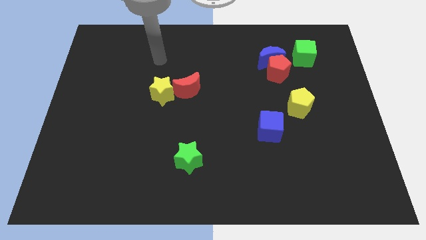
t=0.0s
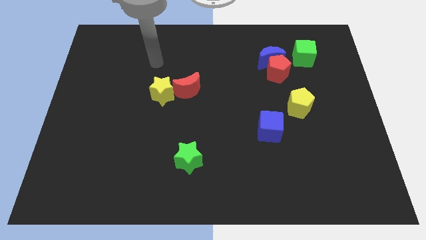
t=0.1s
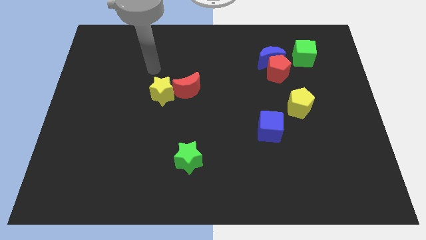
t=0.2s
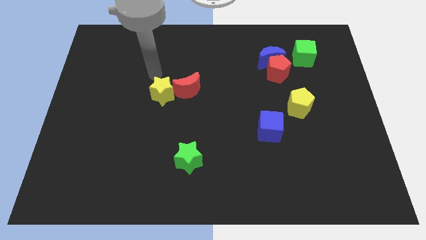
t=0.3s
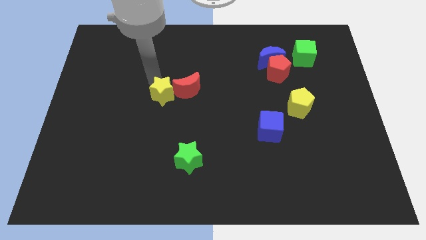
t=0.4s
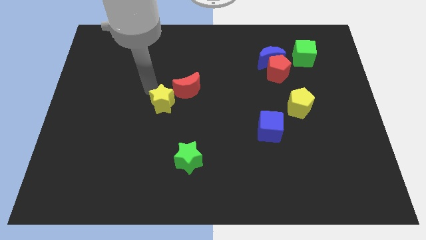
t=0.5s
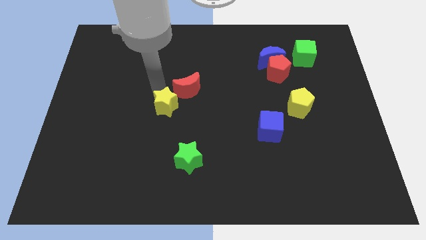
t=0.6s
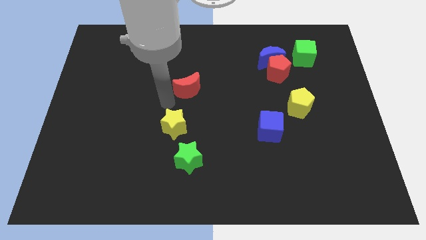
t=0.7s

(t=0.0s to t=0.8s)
separate the red moon from the yellow star

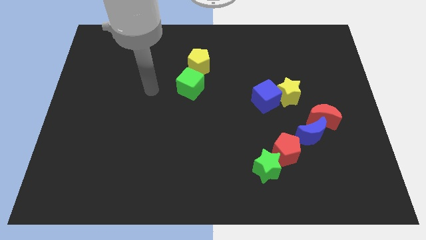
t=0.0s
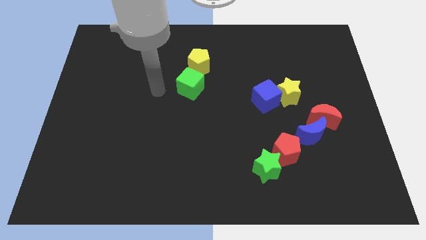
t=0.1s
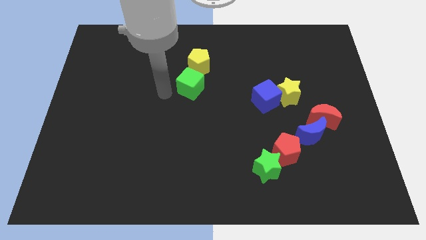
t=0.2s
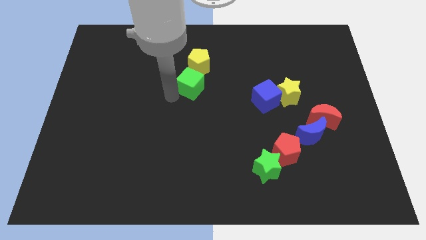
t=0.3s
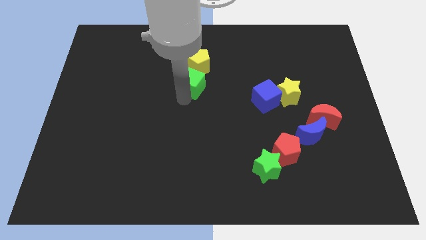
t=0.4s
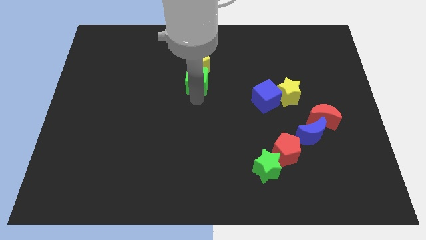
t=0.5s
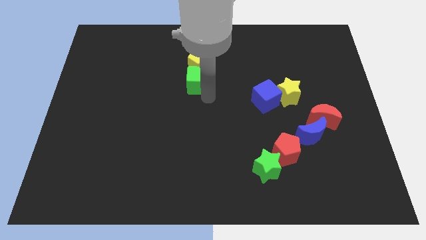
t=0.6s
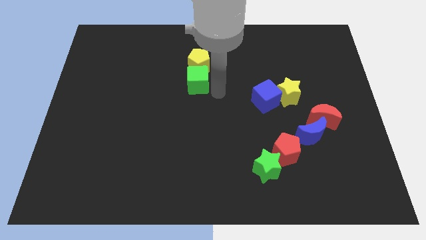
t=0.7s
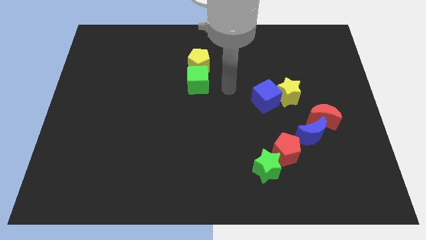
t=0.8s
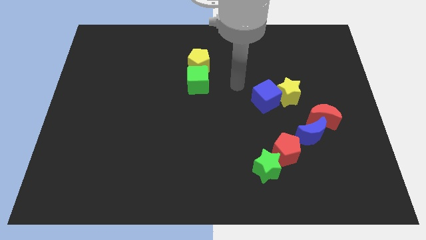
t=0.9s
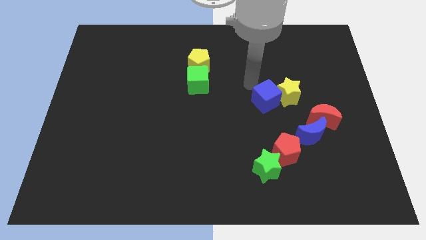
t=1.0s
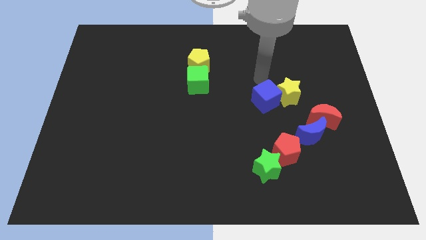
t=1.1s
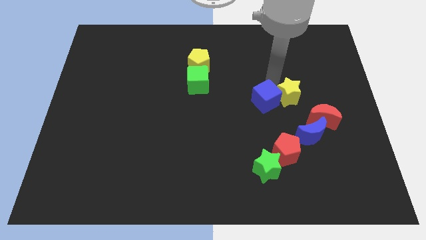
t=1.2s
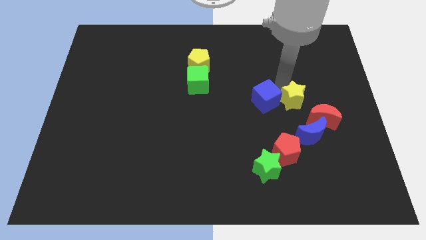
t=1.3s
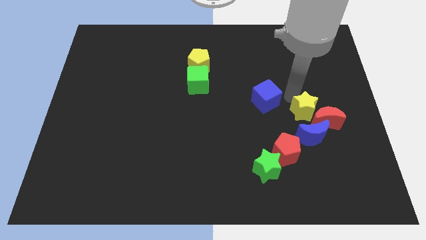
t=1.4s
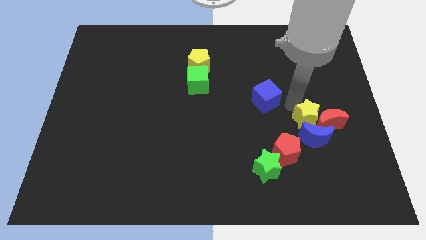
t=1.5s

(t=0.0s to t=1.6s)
pull the blue cube apart from the yellow star

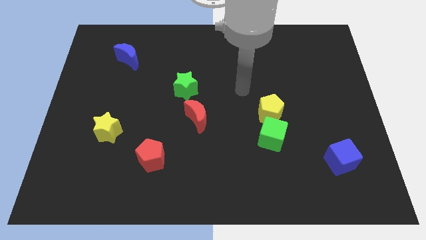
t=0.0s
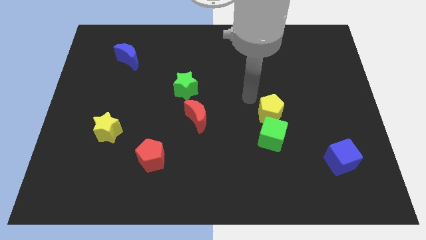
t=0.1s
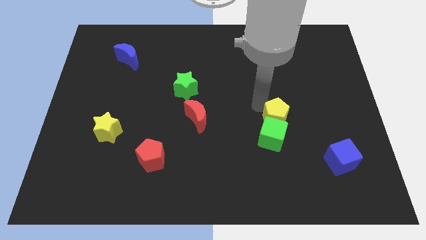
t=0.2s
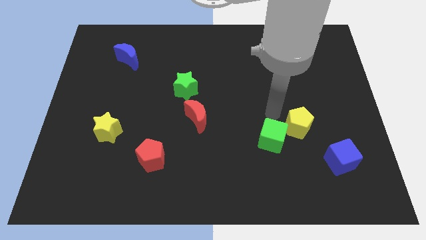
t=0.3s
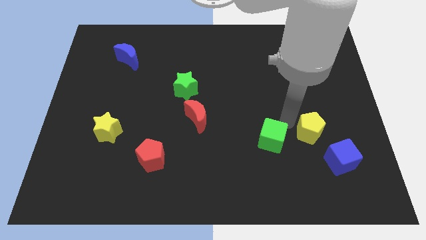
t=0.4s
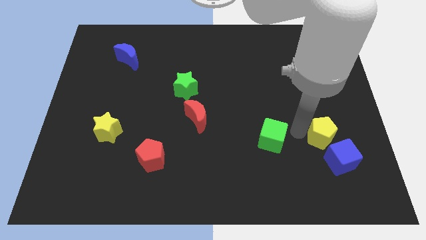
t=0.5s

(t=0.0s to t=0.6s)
pull the green cube apart from the yellow pentagon

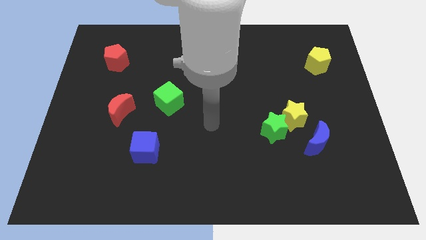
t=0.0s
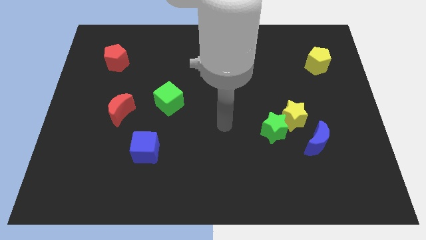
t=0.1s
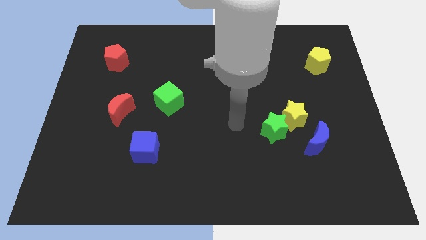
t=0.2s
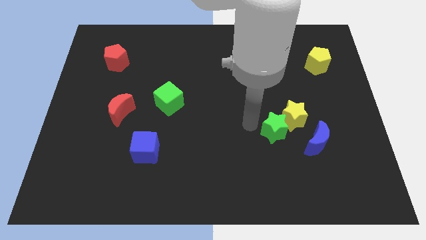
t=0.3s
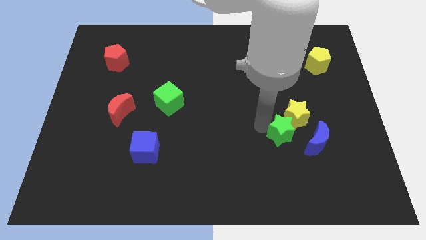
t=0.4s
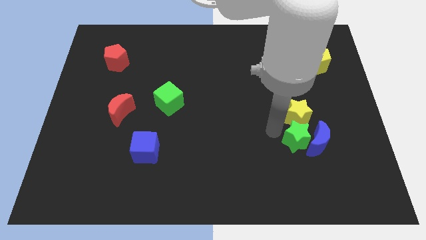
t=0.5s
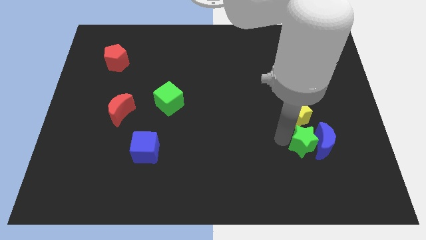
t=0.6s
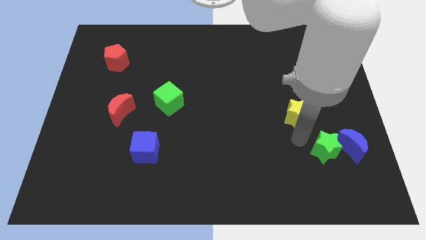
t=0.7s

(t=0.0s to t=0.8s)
pull the yellow star apart from the green star and blue moon

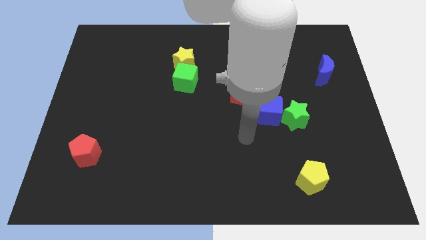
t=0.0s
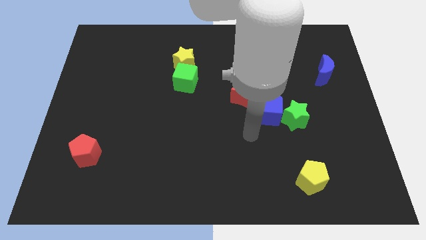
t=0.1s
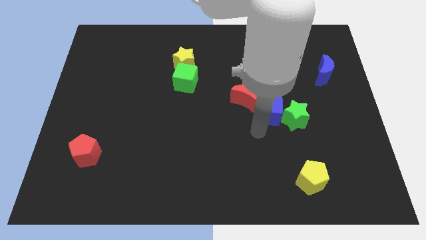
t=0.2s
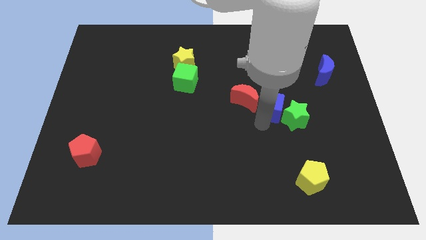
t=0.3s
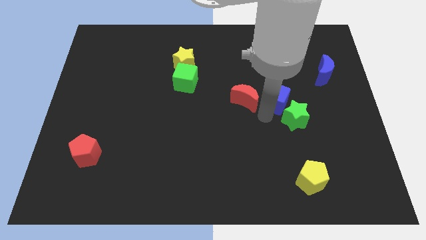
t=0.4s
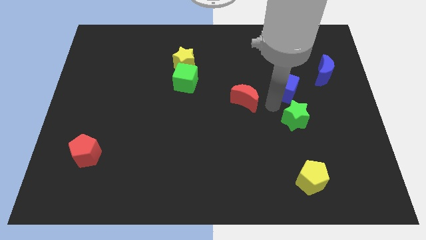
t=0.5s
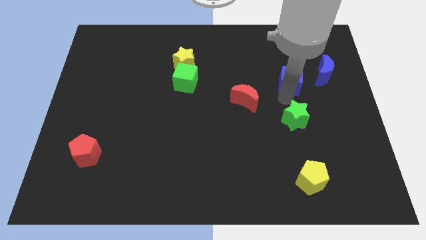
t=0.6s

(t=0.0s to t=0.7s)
move the green star away from the blue cube

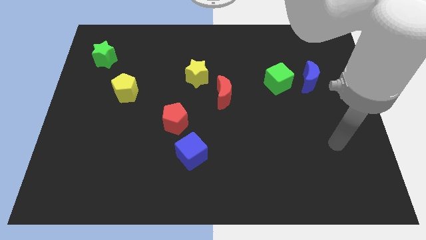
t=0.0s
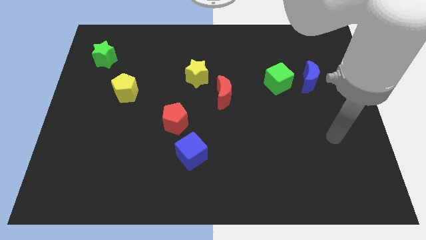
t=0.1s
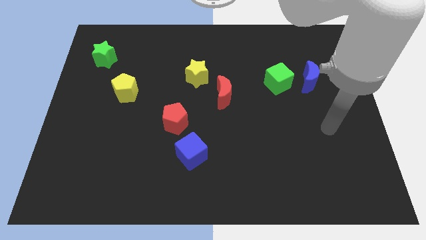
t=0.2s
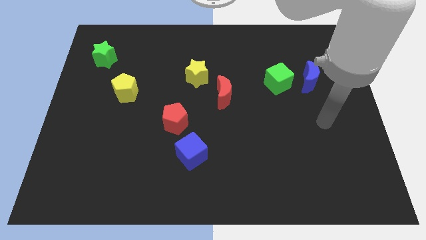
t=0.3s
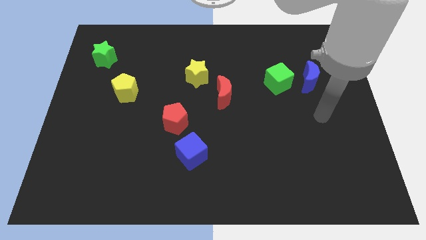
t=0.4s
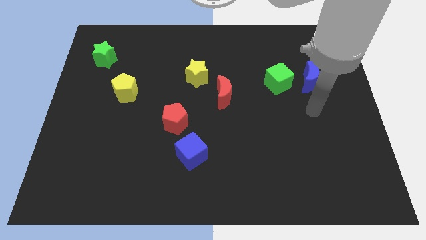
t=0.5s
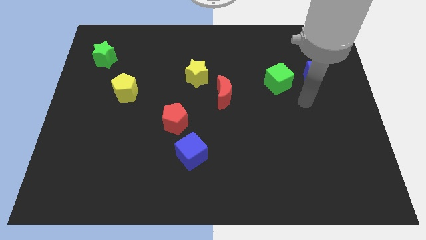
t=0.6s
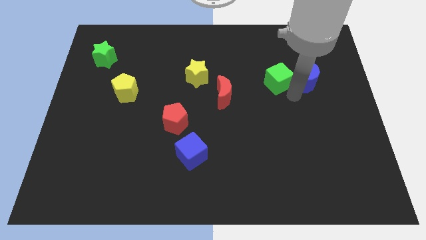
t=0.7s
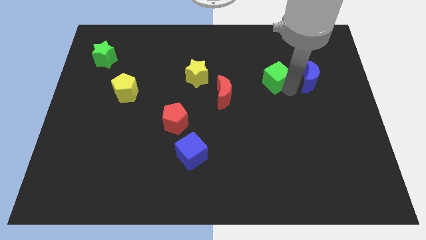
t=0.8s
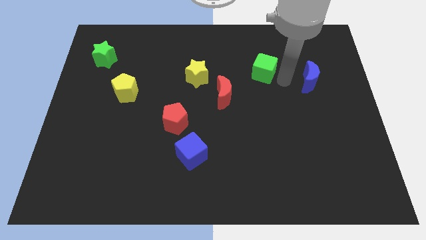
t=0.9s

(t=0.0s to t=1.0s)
pull the blue moon apart from the green cube

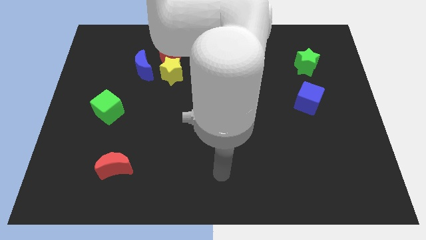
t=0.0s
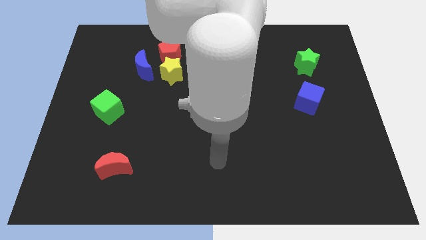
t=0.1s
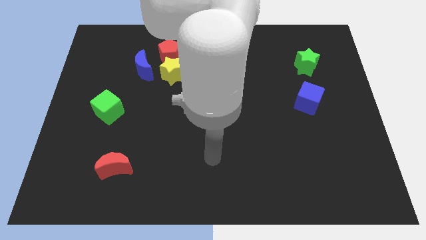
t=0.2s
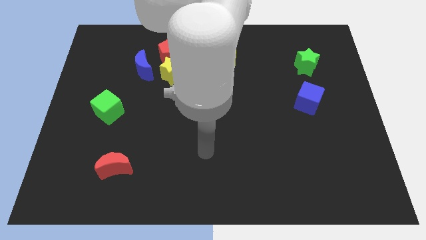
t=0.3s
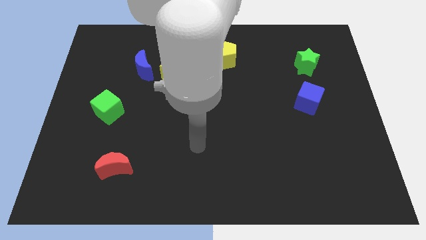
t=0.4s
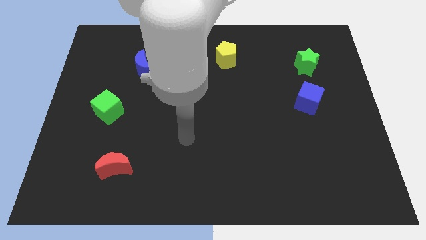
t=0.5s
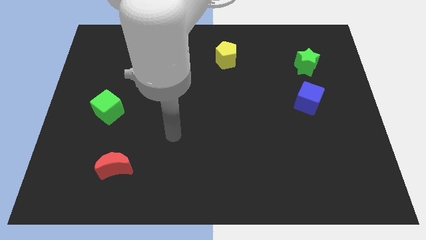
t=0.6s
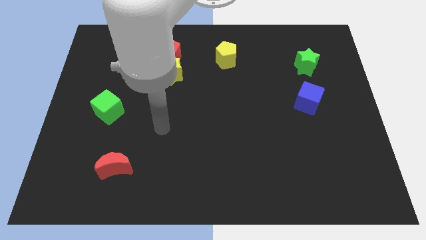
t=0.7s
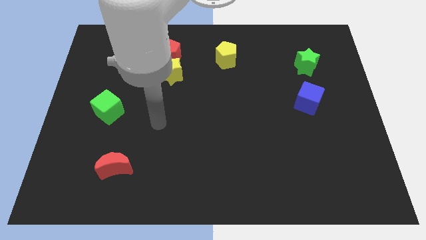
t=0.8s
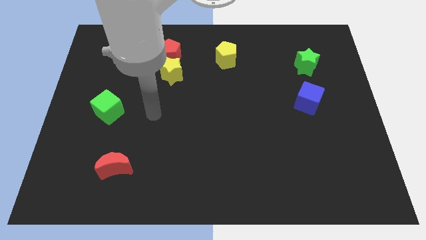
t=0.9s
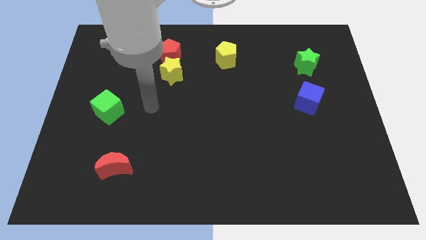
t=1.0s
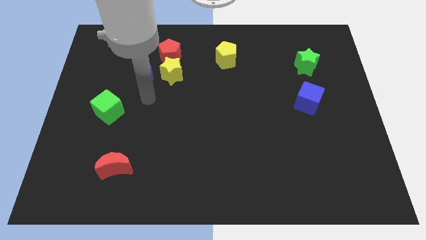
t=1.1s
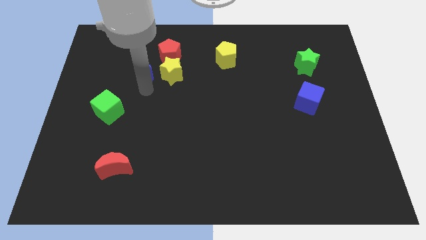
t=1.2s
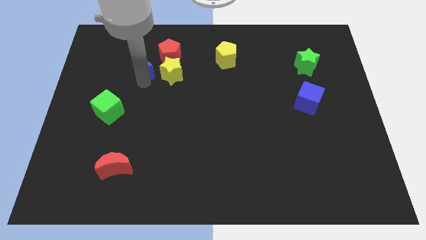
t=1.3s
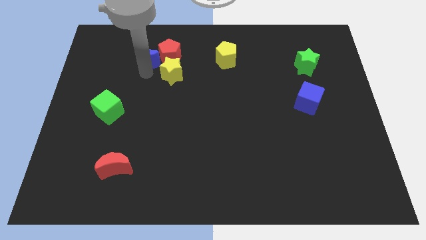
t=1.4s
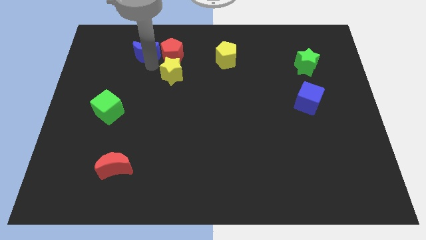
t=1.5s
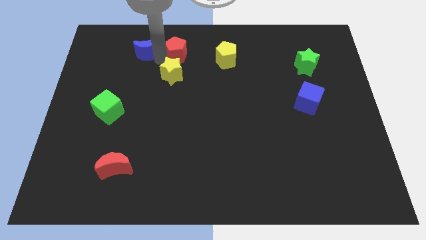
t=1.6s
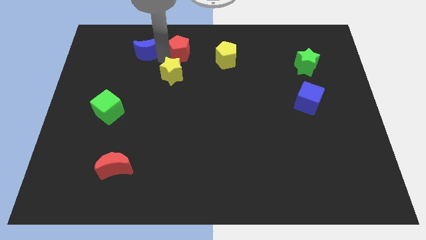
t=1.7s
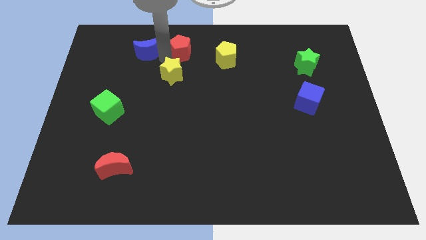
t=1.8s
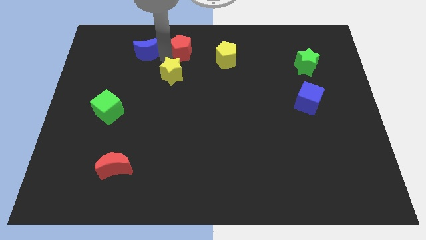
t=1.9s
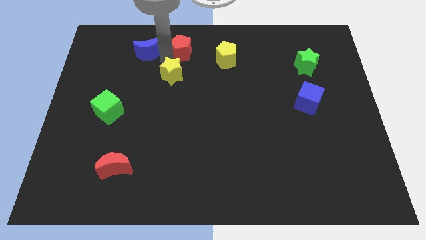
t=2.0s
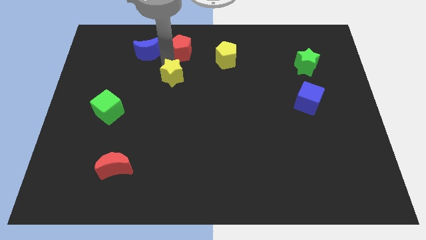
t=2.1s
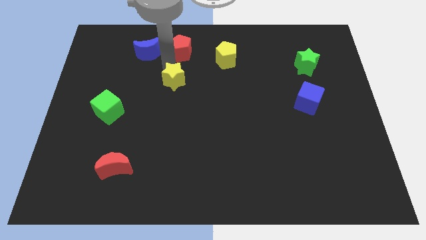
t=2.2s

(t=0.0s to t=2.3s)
move the yellow star away from the red pentagon and blue moon

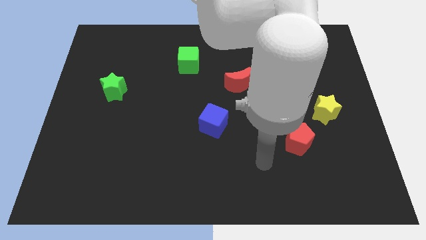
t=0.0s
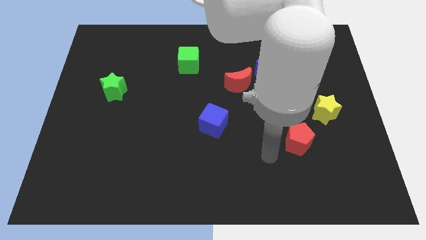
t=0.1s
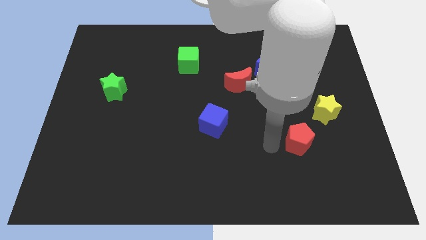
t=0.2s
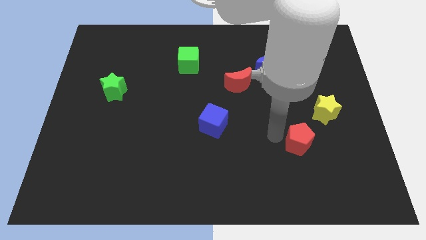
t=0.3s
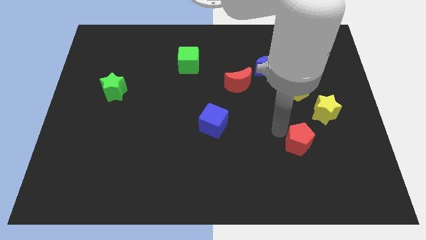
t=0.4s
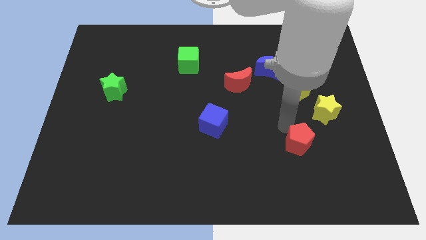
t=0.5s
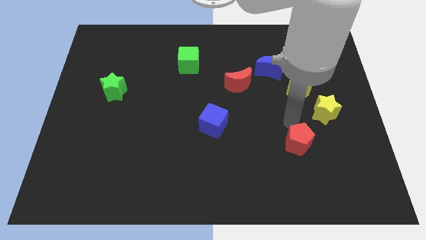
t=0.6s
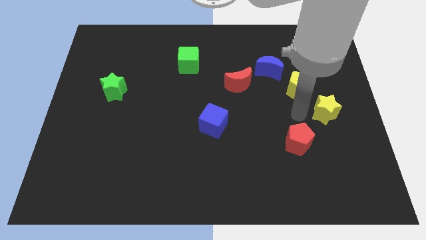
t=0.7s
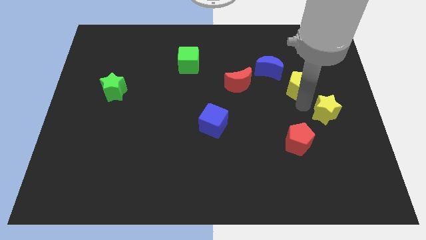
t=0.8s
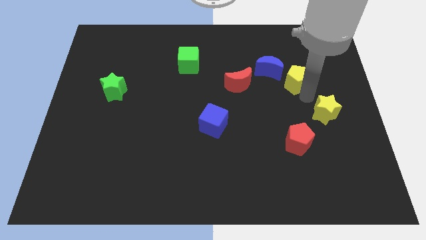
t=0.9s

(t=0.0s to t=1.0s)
move the yellow star away from the yellow pentagon

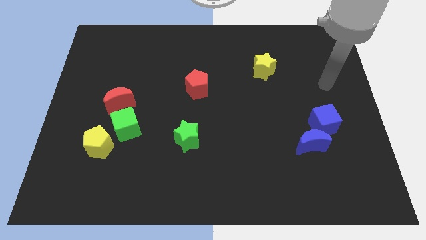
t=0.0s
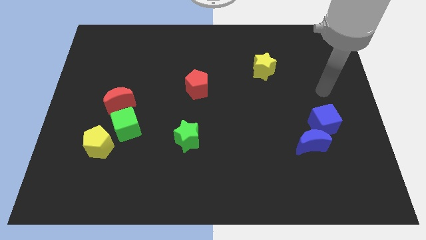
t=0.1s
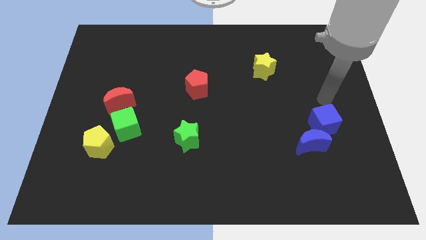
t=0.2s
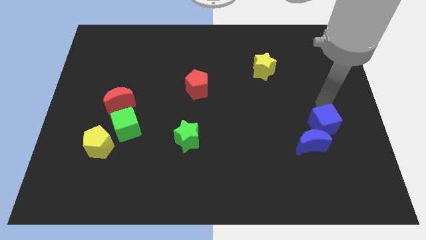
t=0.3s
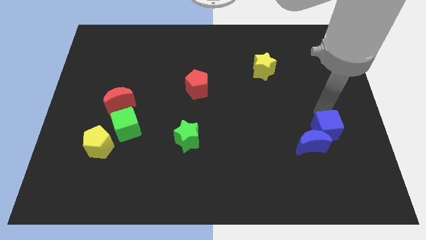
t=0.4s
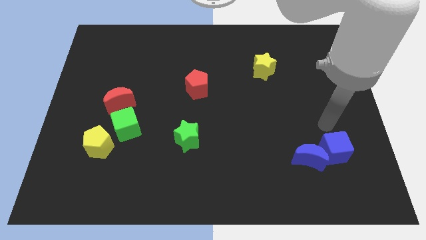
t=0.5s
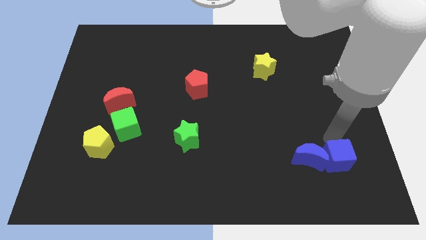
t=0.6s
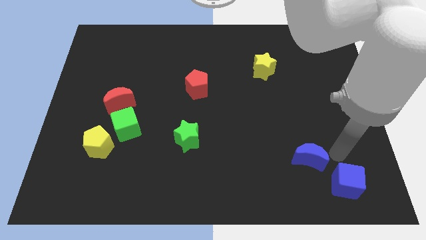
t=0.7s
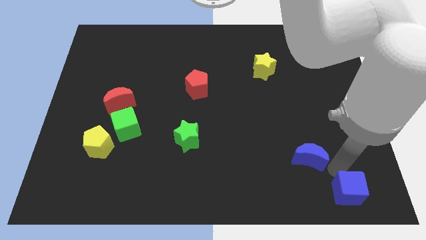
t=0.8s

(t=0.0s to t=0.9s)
move the blue moon away from the blue cube
